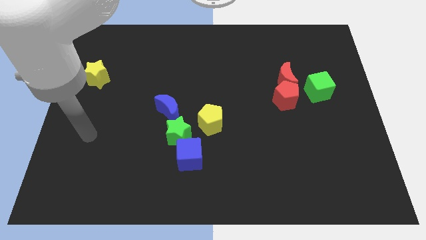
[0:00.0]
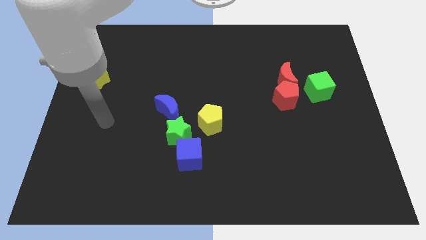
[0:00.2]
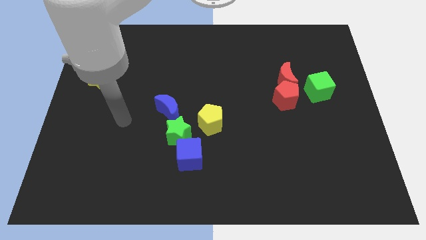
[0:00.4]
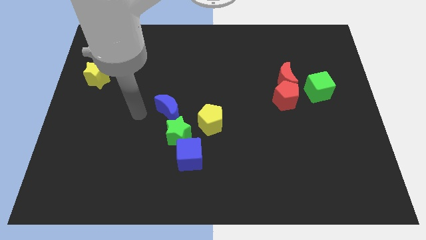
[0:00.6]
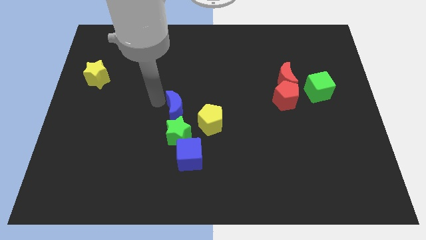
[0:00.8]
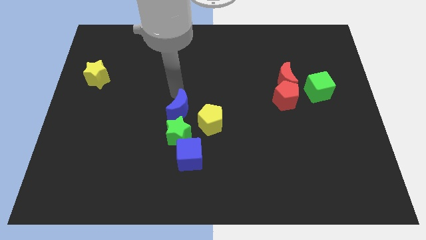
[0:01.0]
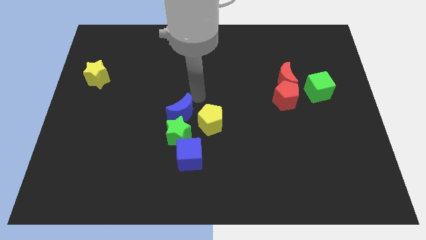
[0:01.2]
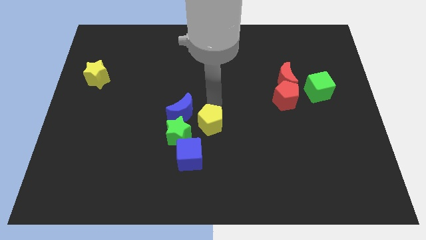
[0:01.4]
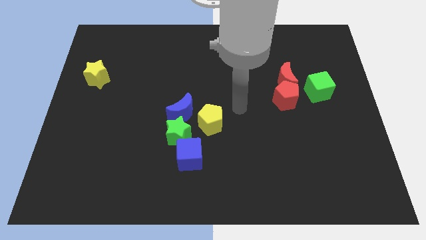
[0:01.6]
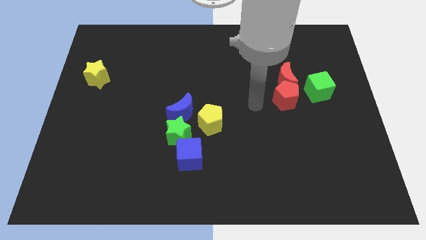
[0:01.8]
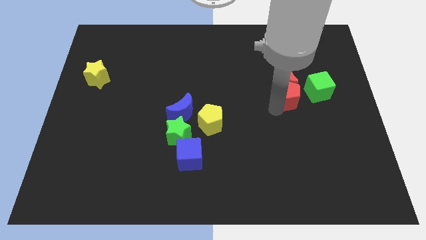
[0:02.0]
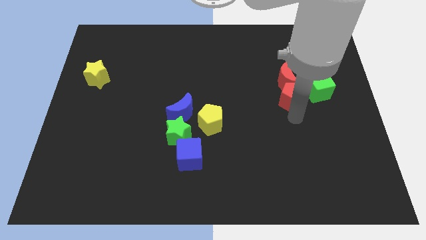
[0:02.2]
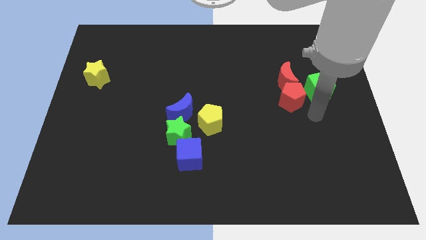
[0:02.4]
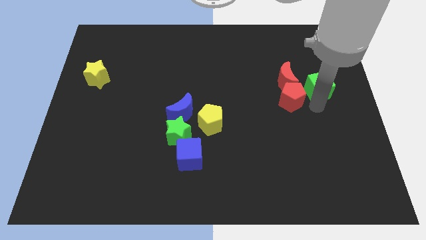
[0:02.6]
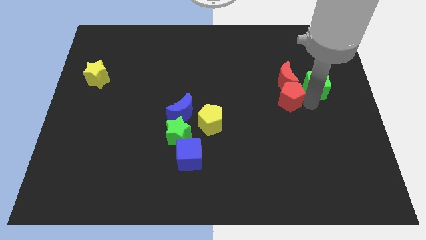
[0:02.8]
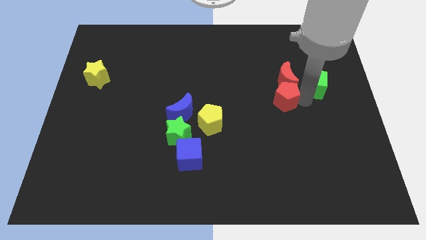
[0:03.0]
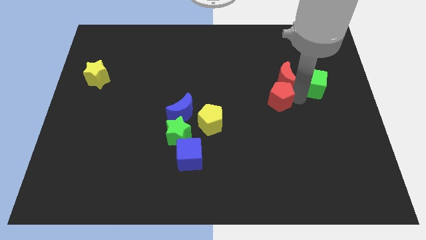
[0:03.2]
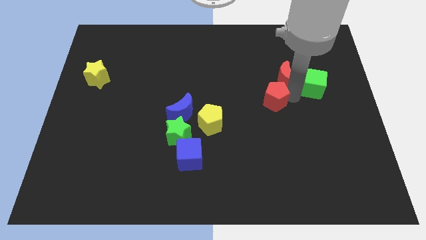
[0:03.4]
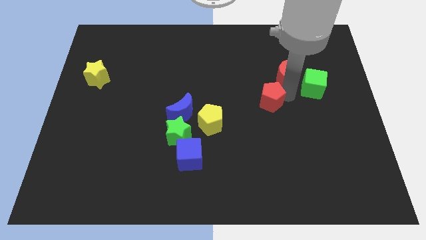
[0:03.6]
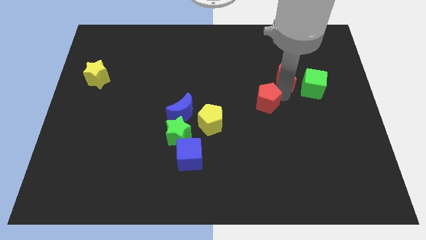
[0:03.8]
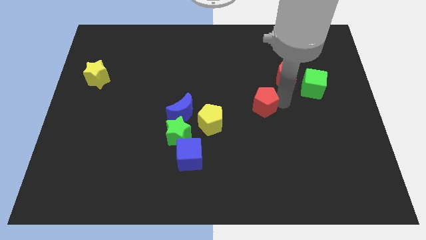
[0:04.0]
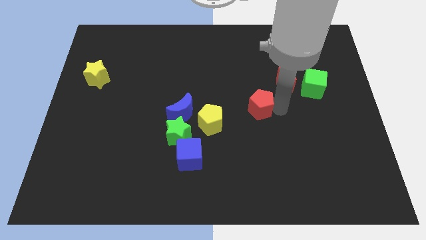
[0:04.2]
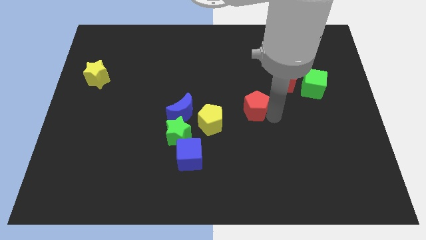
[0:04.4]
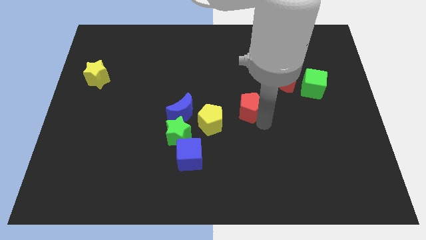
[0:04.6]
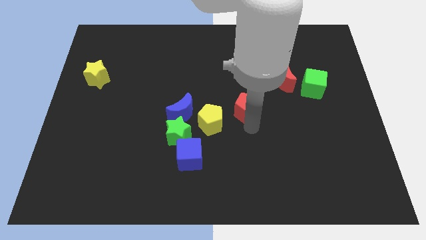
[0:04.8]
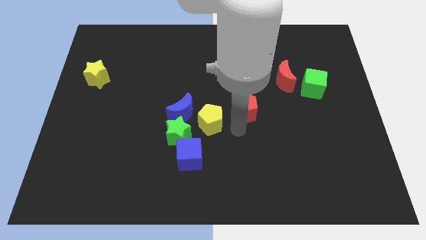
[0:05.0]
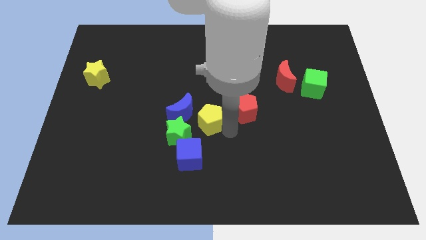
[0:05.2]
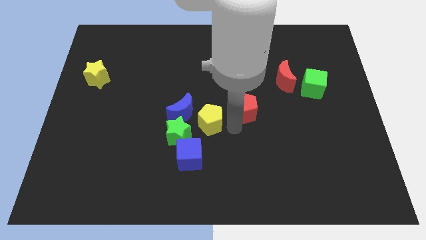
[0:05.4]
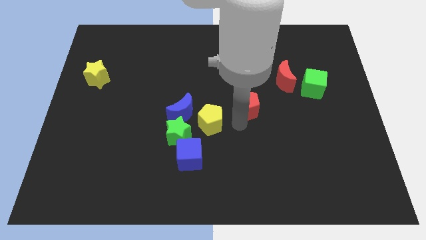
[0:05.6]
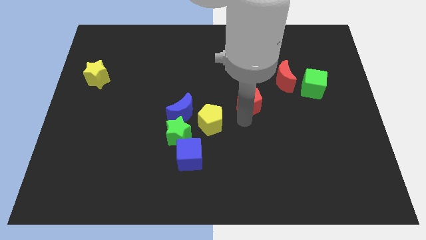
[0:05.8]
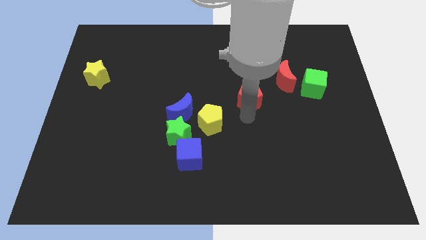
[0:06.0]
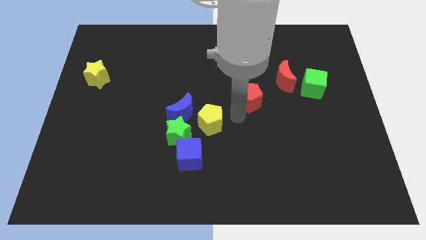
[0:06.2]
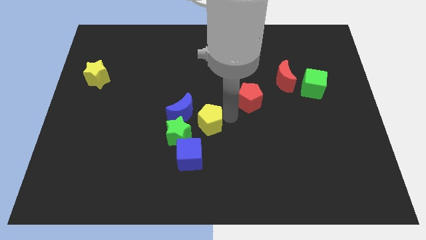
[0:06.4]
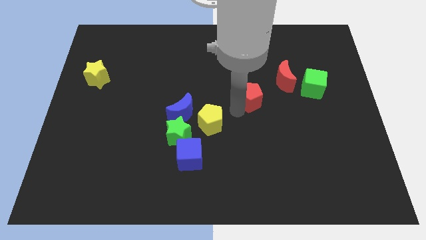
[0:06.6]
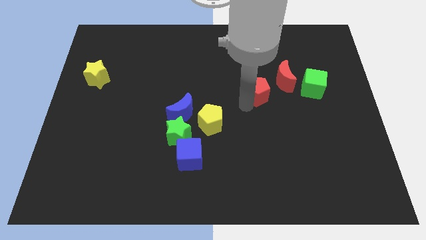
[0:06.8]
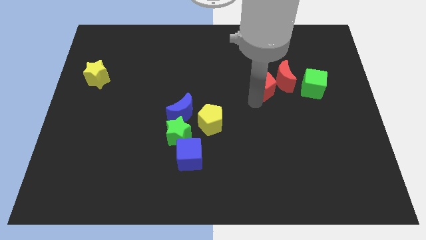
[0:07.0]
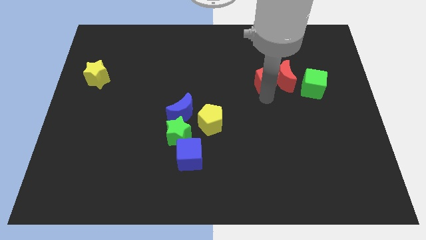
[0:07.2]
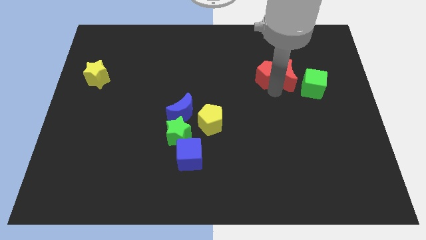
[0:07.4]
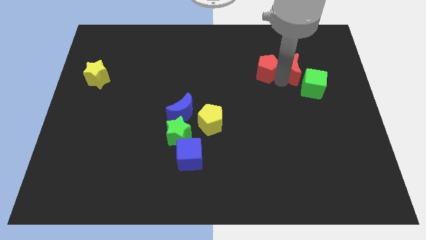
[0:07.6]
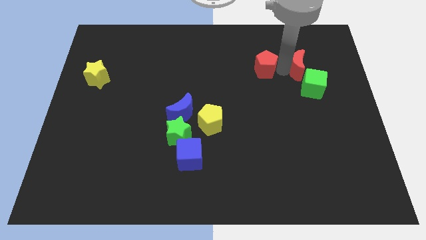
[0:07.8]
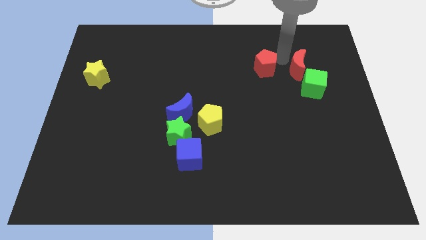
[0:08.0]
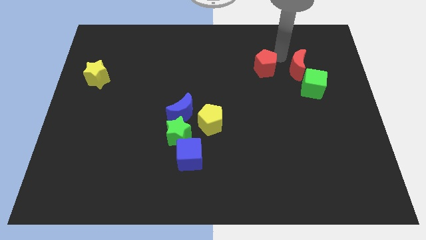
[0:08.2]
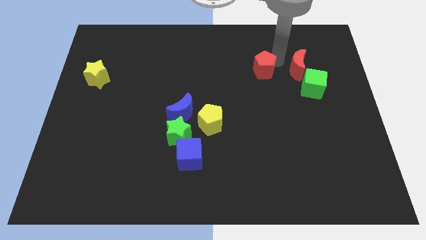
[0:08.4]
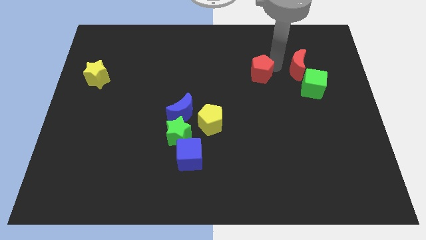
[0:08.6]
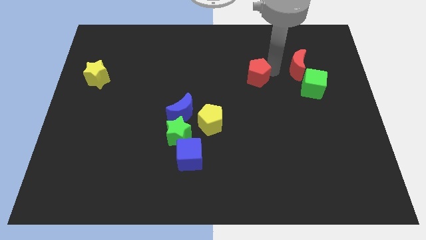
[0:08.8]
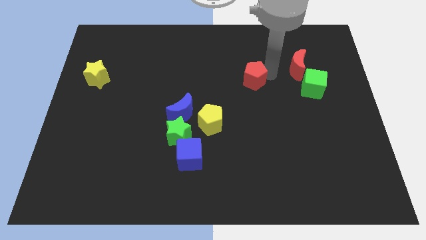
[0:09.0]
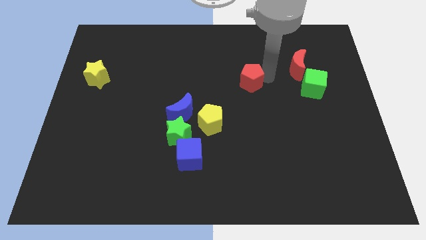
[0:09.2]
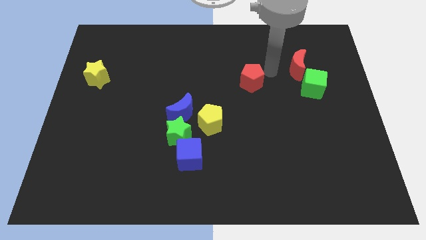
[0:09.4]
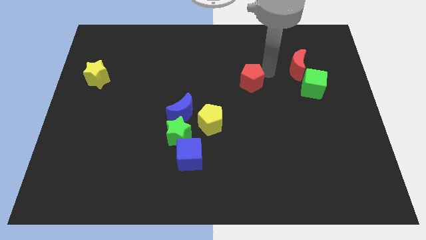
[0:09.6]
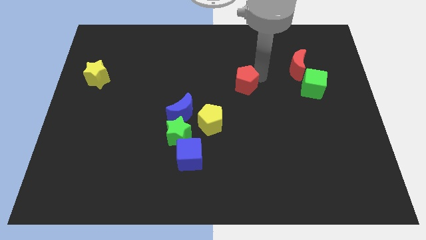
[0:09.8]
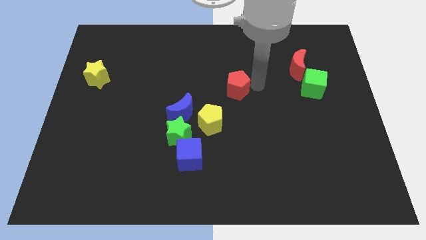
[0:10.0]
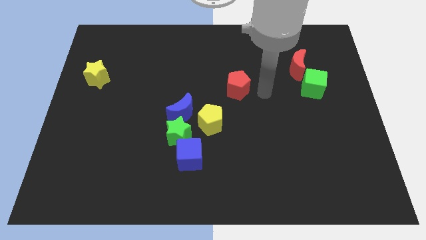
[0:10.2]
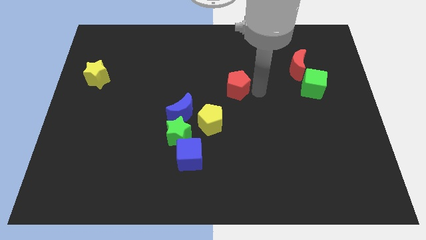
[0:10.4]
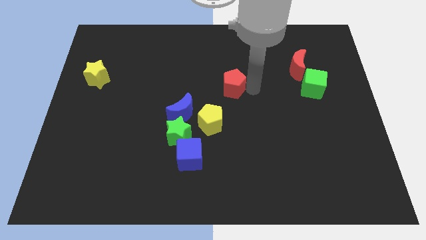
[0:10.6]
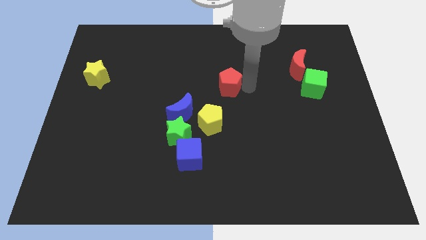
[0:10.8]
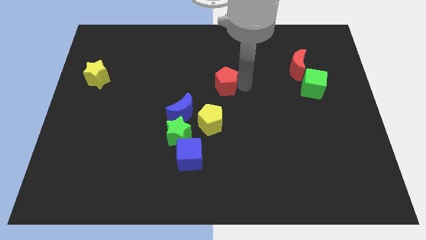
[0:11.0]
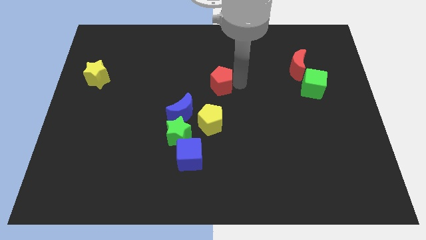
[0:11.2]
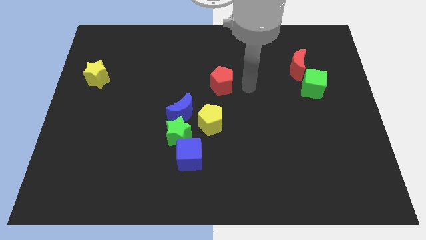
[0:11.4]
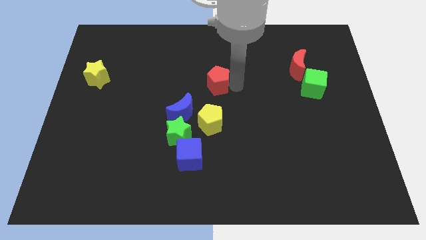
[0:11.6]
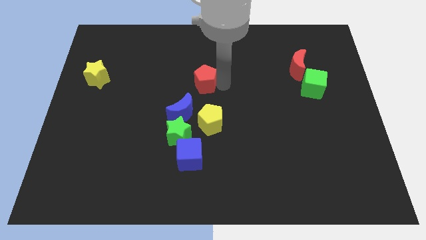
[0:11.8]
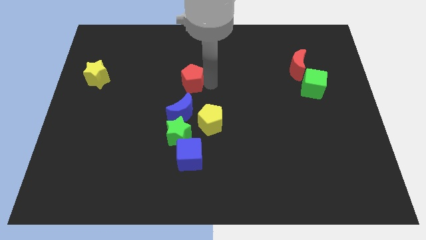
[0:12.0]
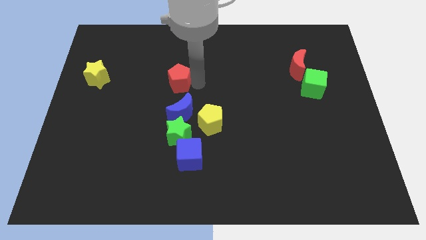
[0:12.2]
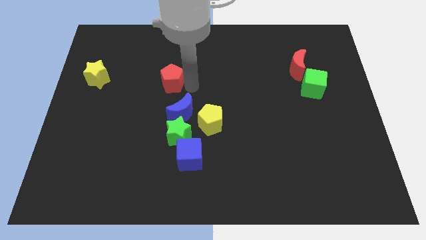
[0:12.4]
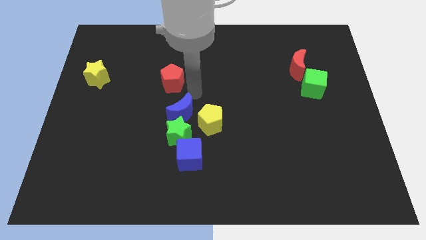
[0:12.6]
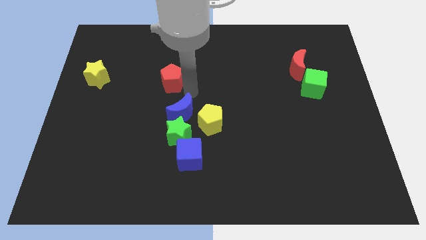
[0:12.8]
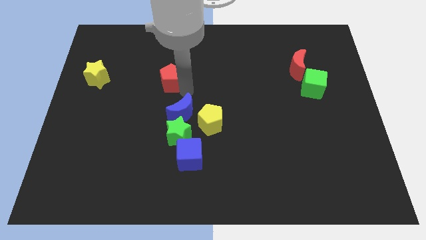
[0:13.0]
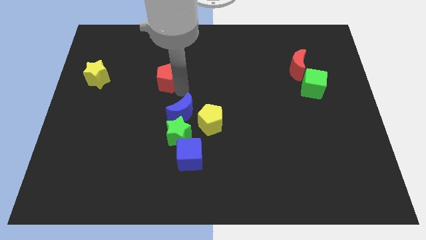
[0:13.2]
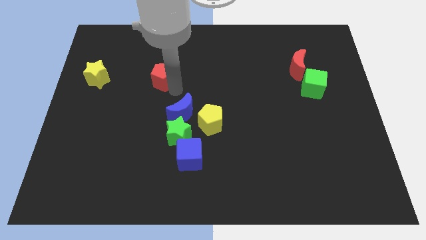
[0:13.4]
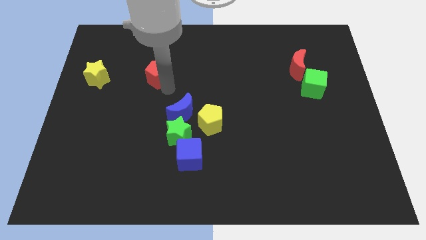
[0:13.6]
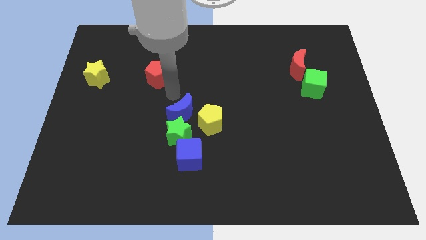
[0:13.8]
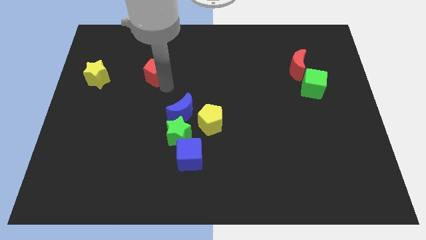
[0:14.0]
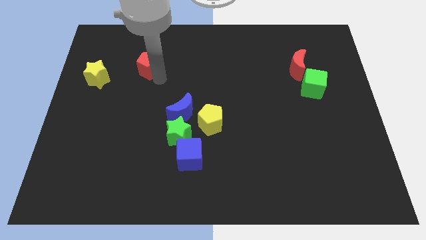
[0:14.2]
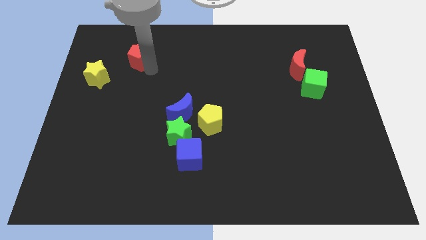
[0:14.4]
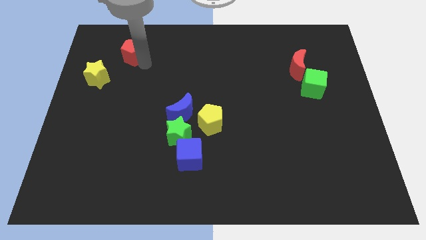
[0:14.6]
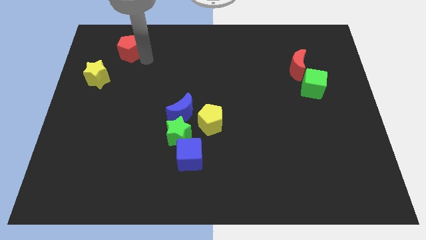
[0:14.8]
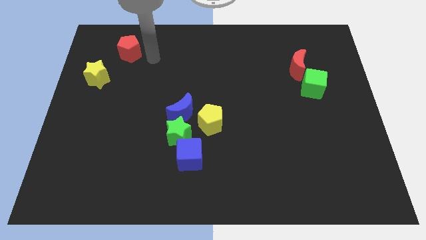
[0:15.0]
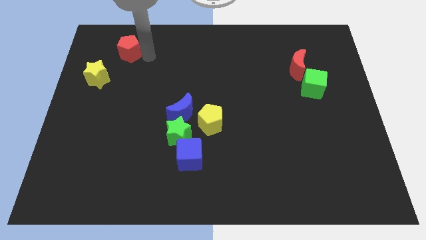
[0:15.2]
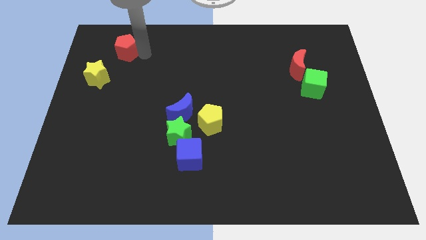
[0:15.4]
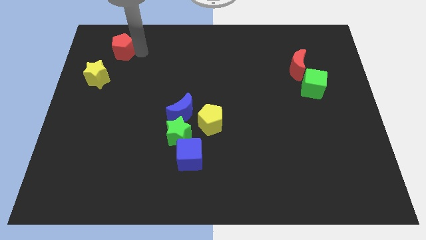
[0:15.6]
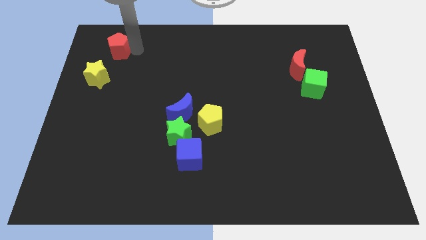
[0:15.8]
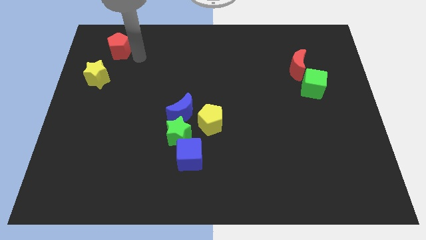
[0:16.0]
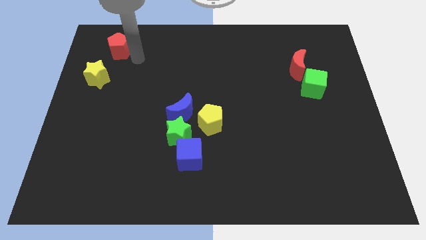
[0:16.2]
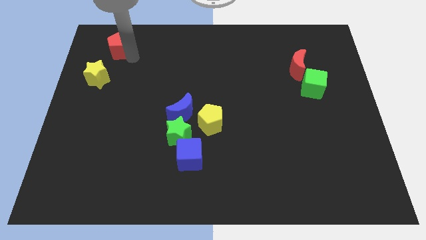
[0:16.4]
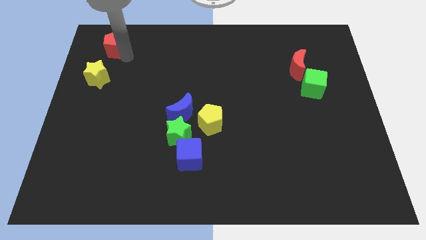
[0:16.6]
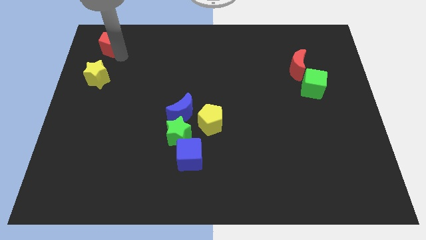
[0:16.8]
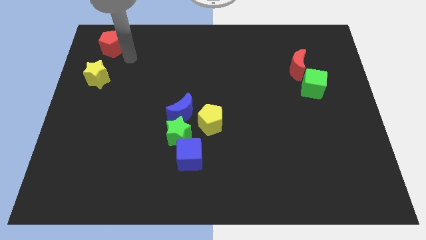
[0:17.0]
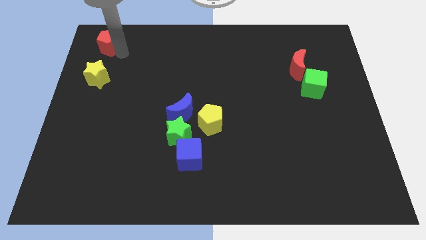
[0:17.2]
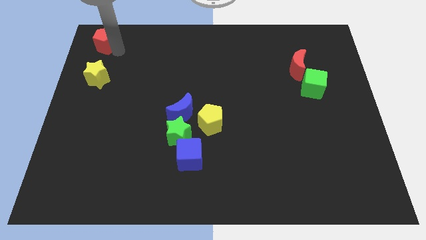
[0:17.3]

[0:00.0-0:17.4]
put the red pentagon to the upper left corner
